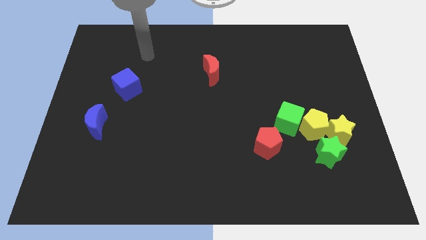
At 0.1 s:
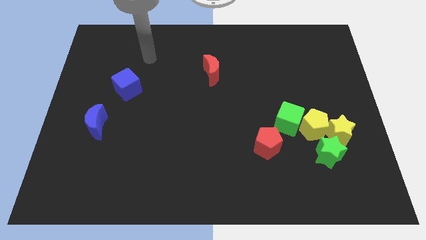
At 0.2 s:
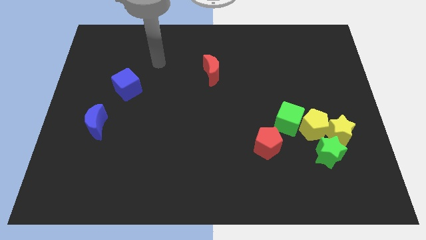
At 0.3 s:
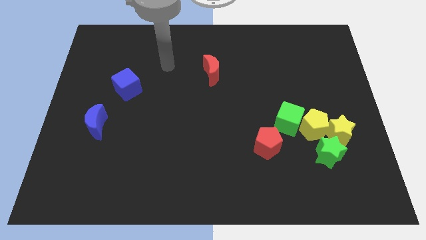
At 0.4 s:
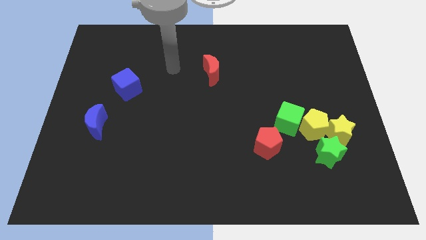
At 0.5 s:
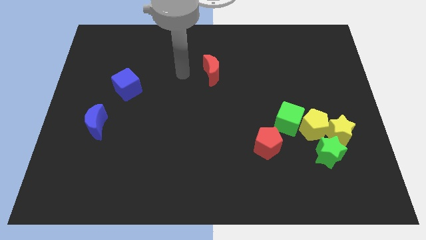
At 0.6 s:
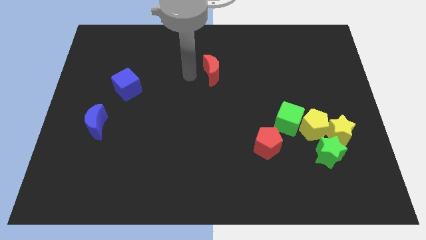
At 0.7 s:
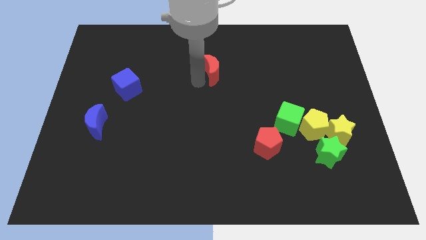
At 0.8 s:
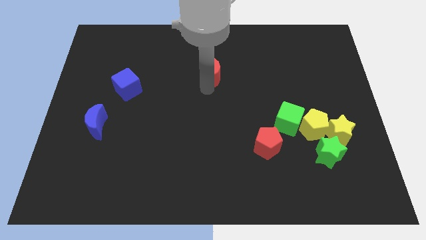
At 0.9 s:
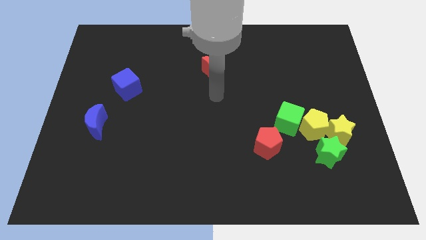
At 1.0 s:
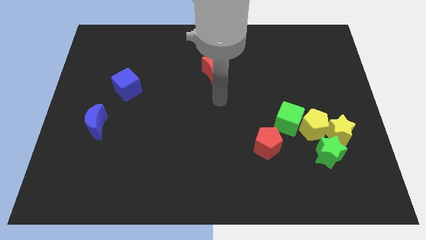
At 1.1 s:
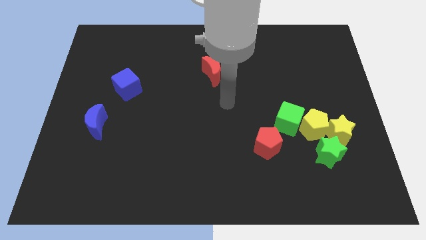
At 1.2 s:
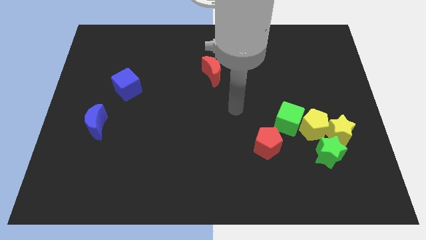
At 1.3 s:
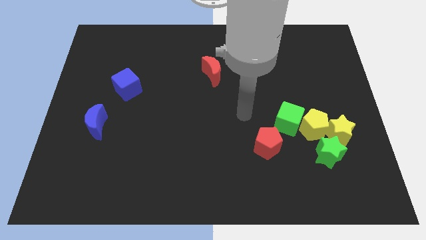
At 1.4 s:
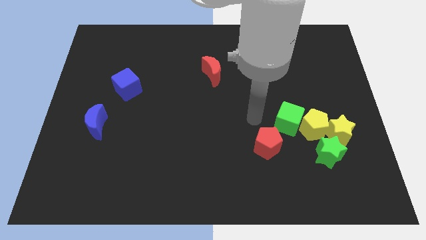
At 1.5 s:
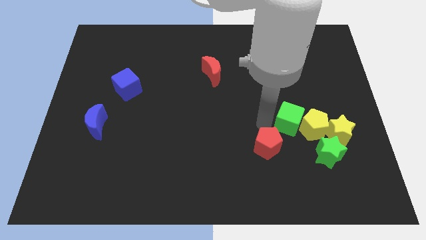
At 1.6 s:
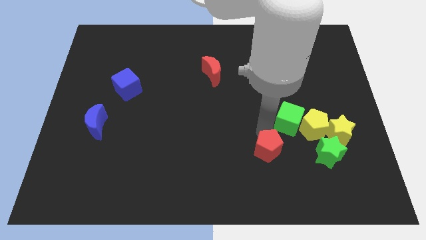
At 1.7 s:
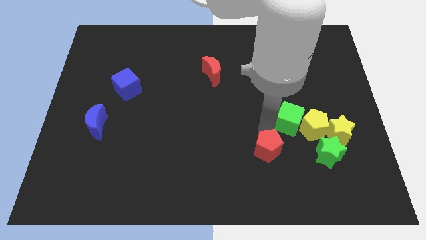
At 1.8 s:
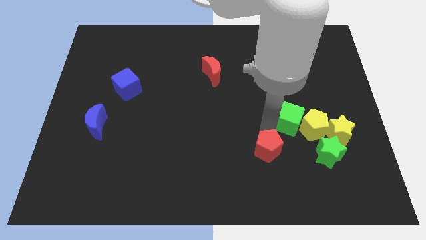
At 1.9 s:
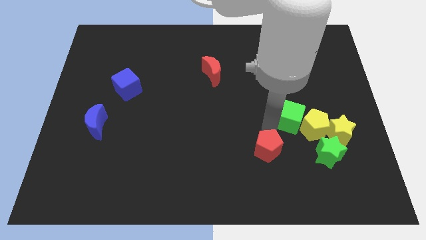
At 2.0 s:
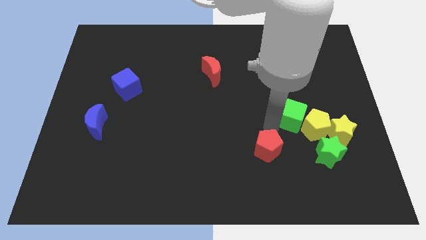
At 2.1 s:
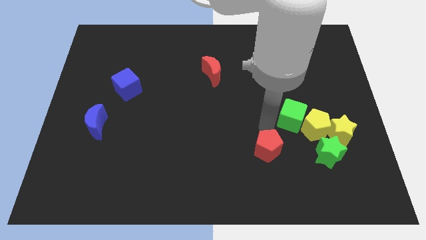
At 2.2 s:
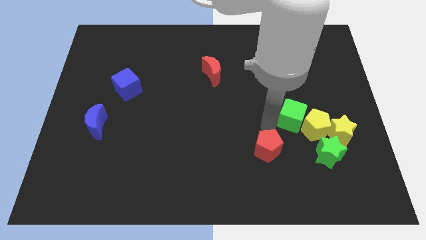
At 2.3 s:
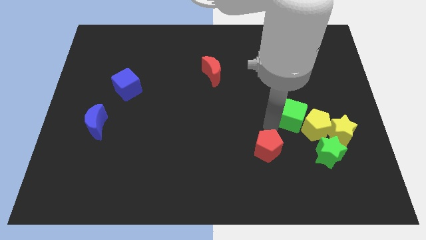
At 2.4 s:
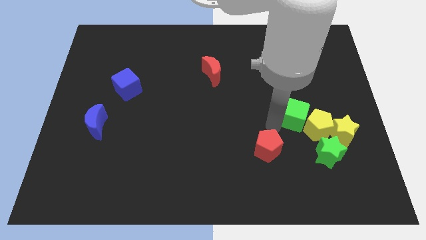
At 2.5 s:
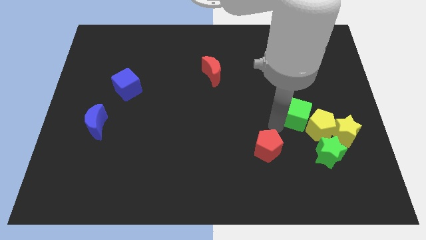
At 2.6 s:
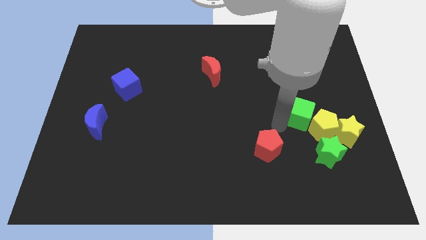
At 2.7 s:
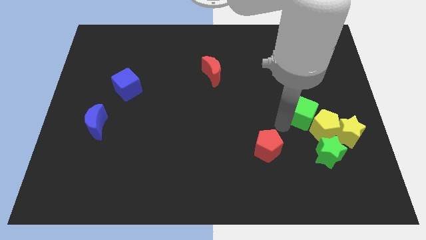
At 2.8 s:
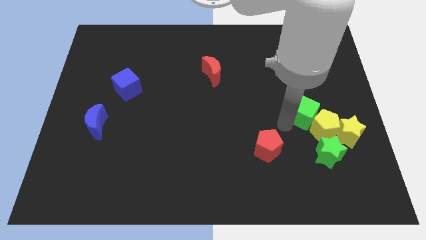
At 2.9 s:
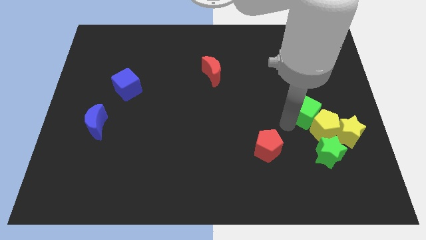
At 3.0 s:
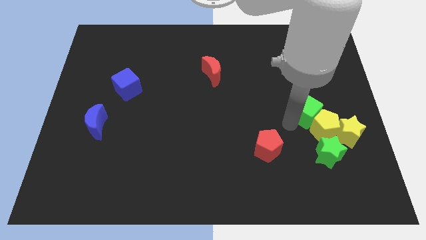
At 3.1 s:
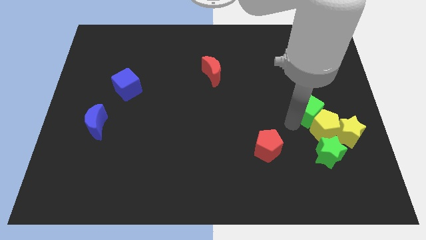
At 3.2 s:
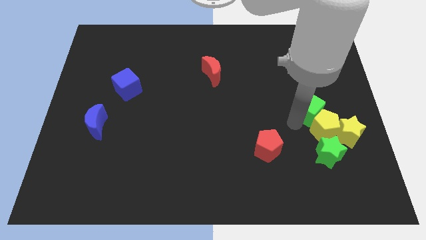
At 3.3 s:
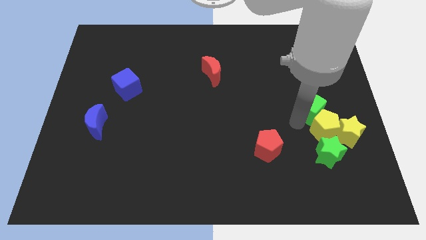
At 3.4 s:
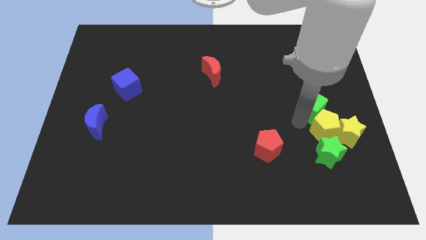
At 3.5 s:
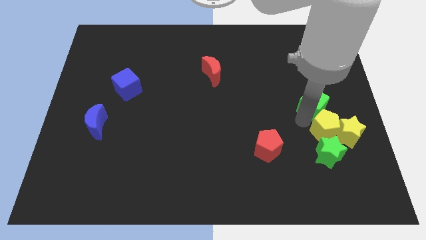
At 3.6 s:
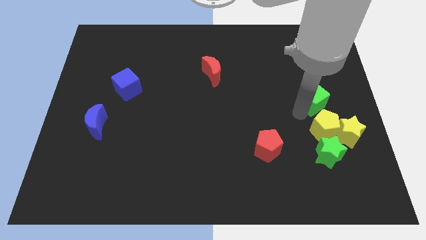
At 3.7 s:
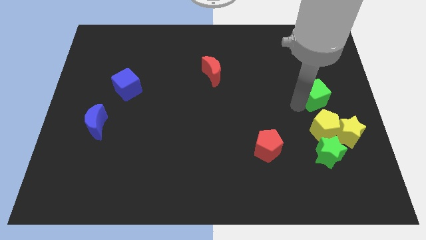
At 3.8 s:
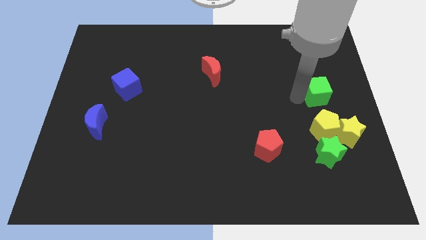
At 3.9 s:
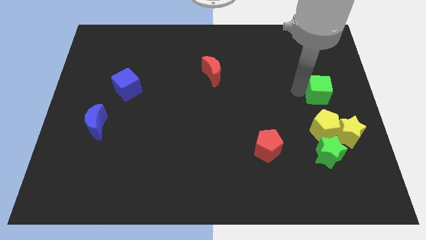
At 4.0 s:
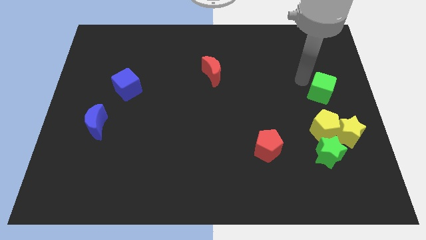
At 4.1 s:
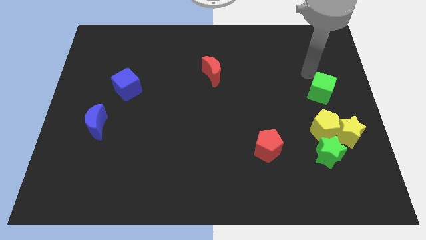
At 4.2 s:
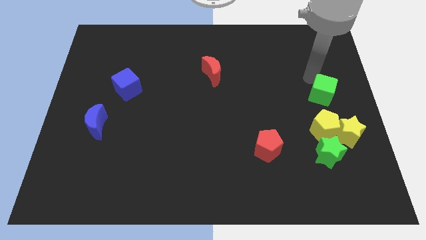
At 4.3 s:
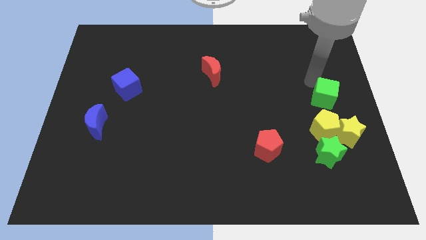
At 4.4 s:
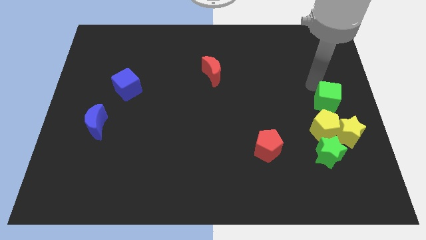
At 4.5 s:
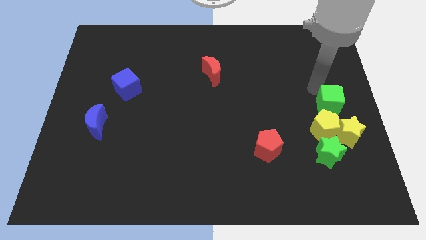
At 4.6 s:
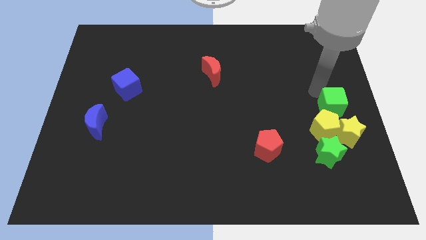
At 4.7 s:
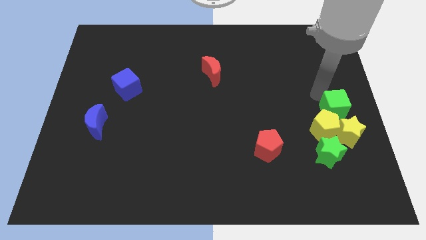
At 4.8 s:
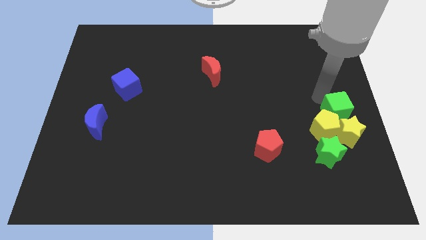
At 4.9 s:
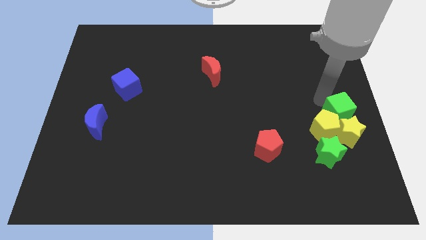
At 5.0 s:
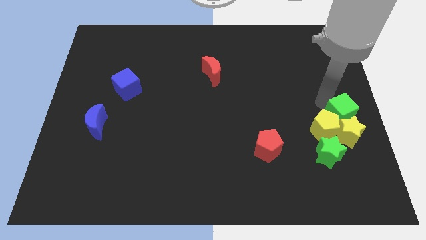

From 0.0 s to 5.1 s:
push the green cube towards the yellow star

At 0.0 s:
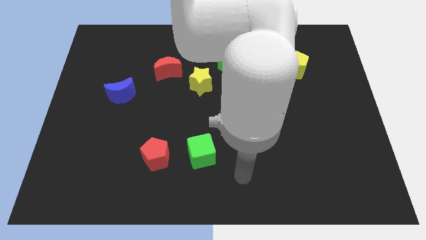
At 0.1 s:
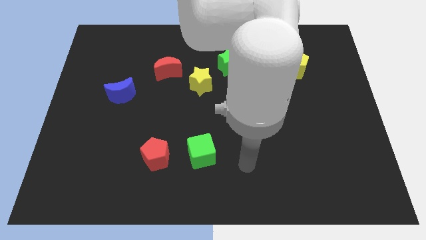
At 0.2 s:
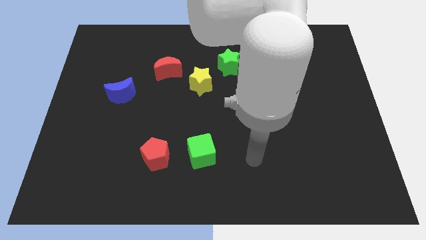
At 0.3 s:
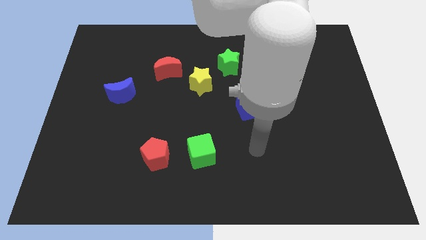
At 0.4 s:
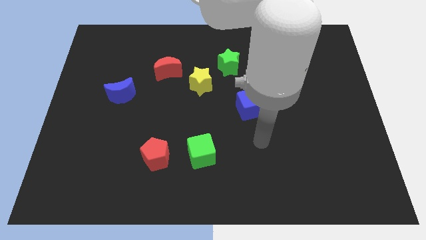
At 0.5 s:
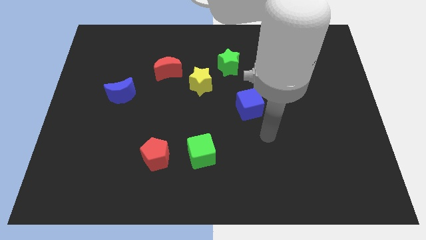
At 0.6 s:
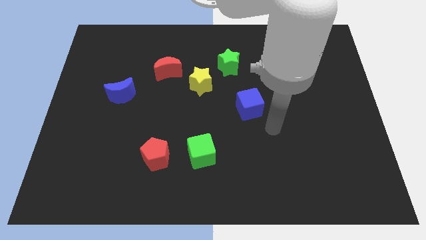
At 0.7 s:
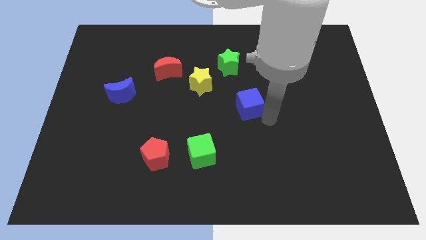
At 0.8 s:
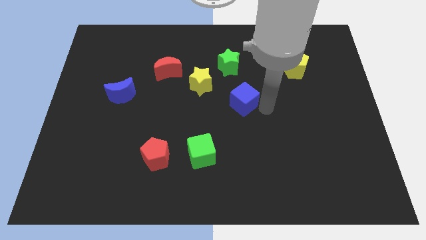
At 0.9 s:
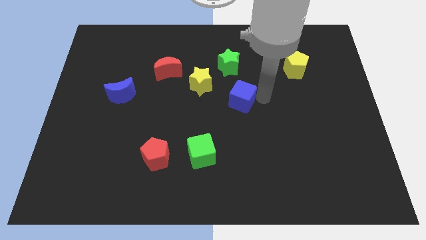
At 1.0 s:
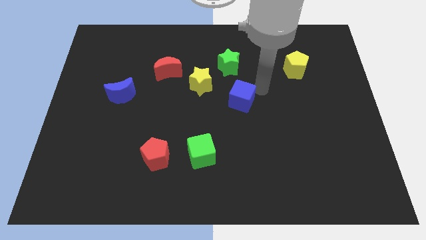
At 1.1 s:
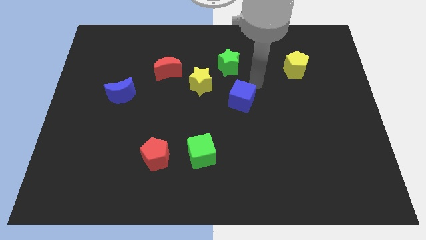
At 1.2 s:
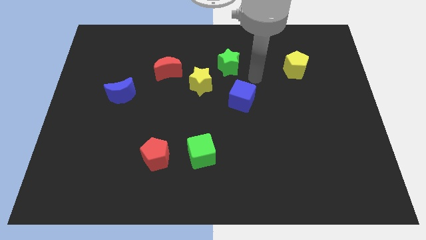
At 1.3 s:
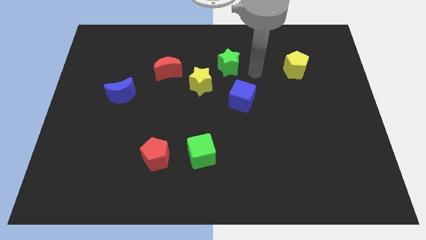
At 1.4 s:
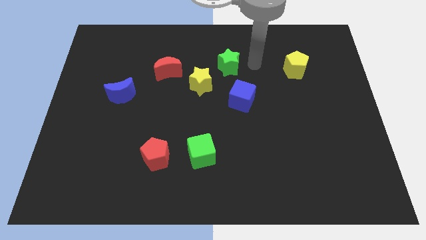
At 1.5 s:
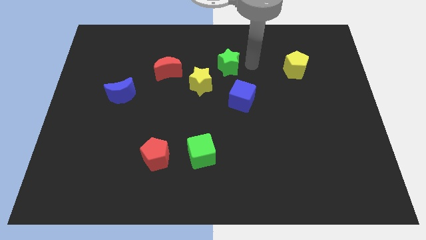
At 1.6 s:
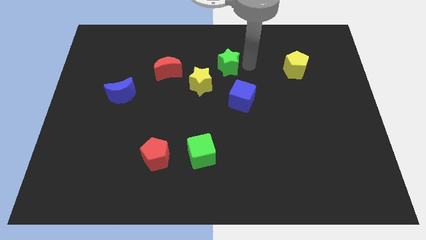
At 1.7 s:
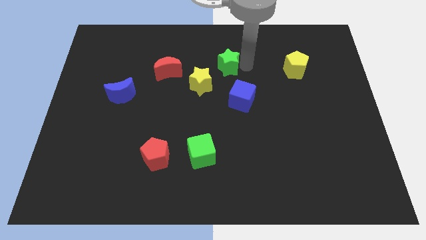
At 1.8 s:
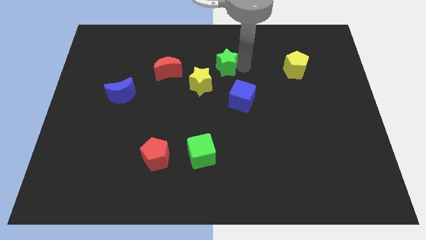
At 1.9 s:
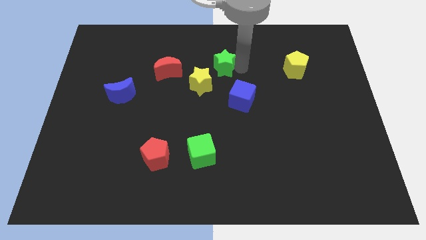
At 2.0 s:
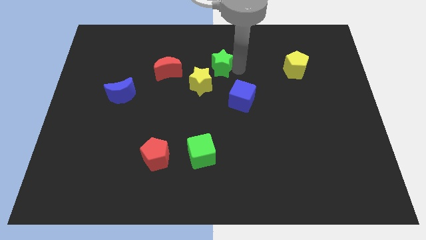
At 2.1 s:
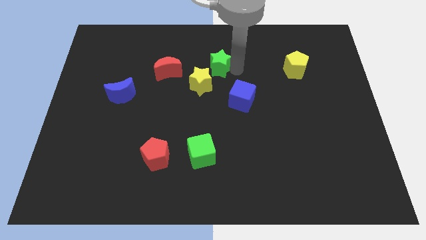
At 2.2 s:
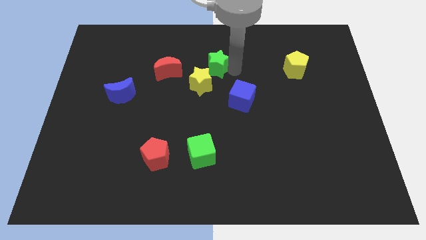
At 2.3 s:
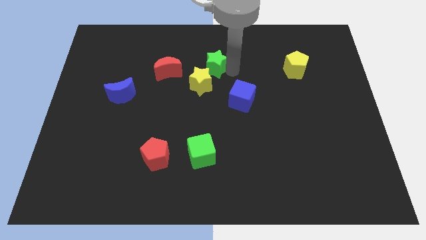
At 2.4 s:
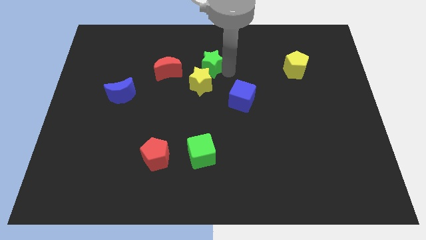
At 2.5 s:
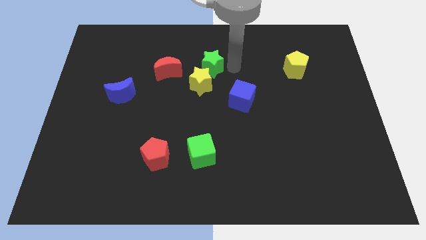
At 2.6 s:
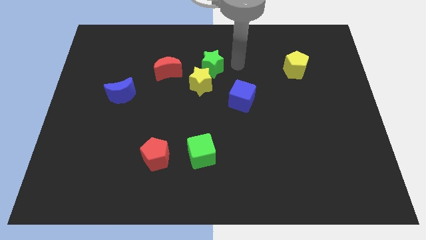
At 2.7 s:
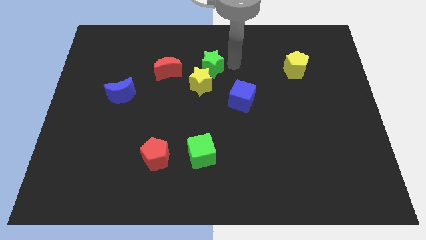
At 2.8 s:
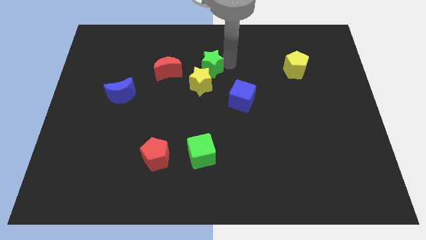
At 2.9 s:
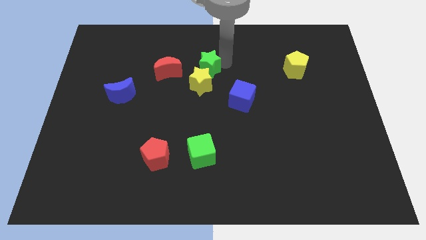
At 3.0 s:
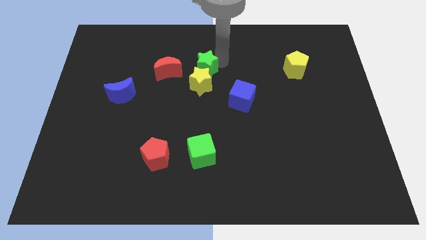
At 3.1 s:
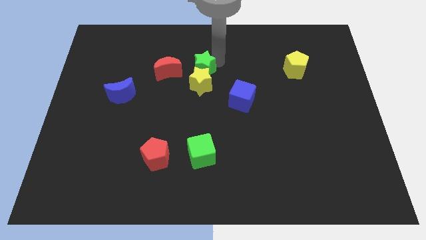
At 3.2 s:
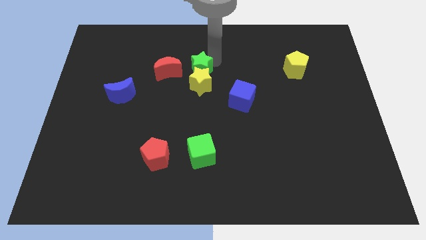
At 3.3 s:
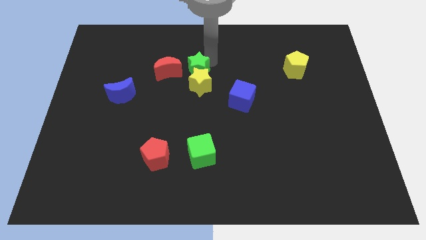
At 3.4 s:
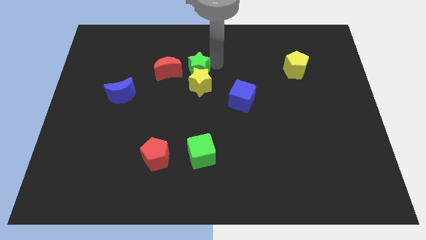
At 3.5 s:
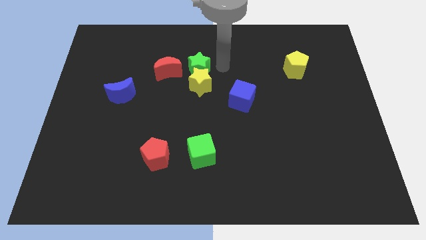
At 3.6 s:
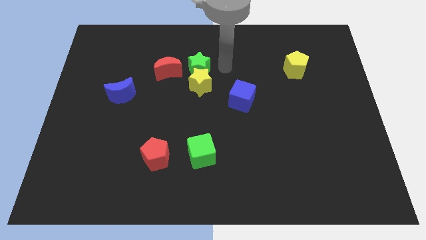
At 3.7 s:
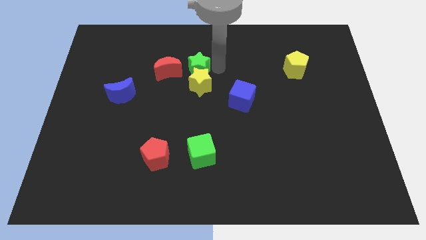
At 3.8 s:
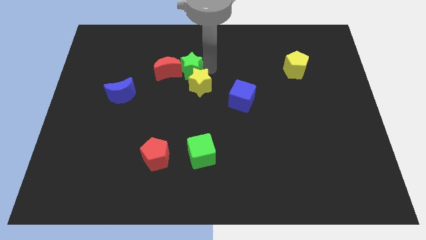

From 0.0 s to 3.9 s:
move the green star to the red moon
